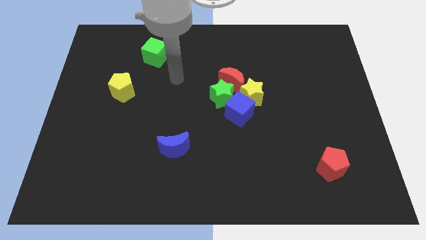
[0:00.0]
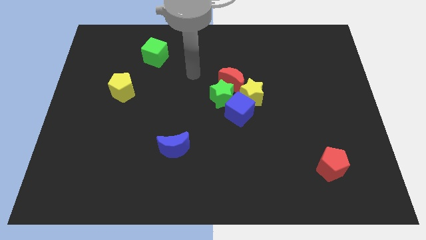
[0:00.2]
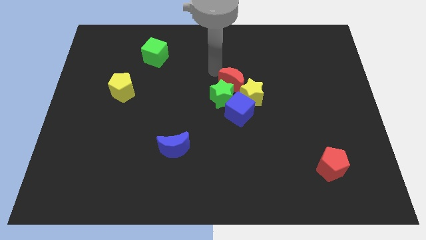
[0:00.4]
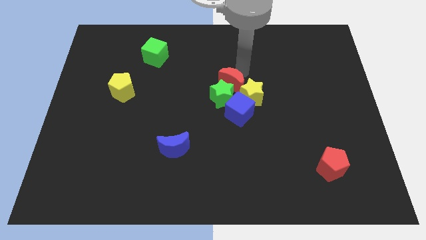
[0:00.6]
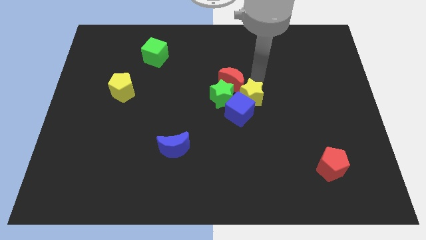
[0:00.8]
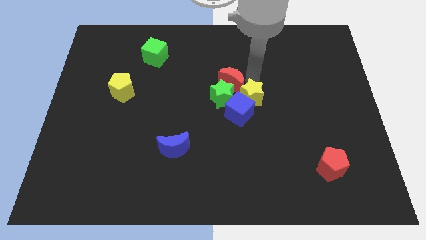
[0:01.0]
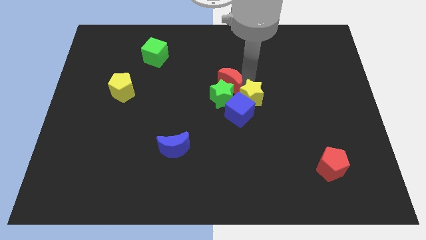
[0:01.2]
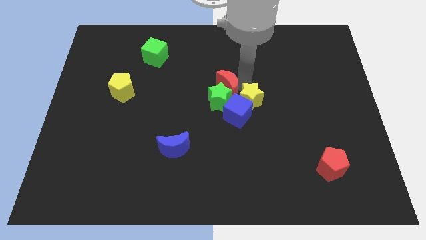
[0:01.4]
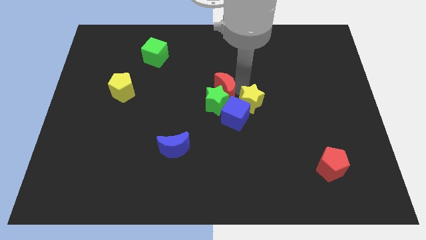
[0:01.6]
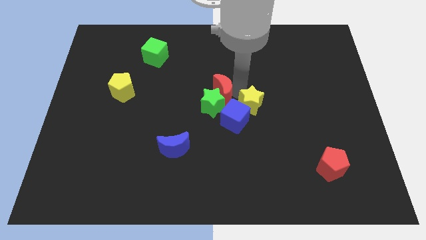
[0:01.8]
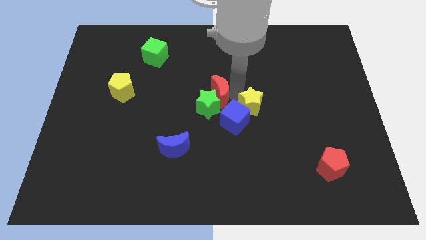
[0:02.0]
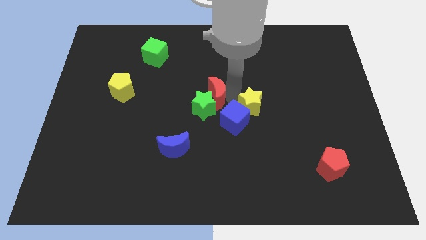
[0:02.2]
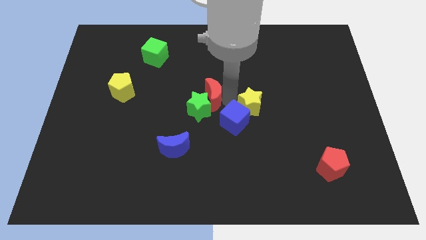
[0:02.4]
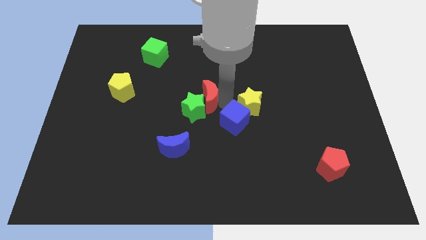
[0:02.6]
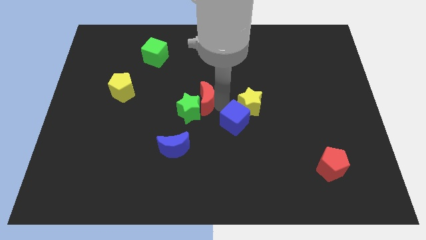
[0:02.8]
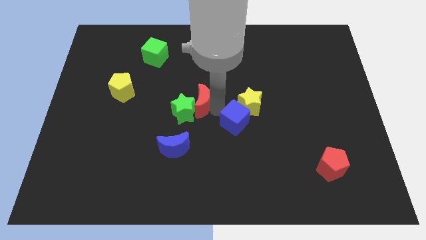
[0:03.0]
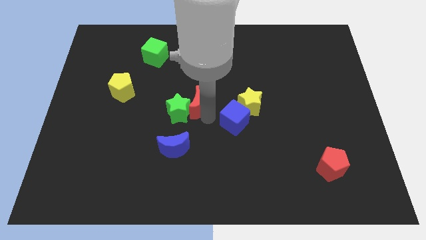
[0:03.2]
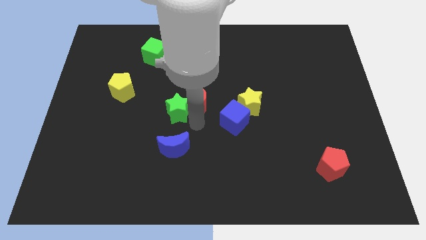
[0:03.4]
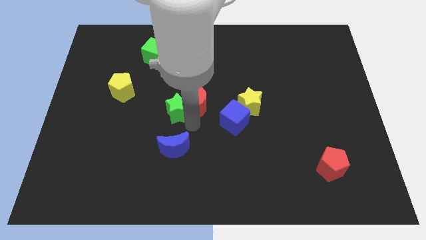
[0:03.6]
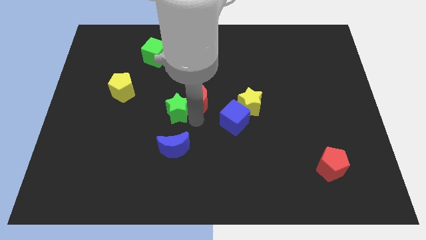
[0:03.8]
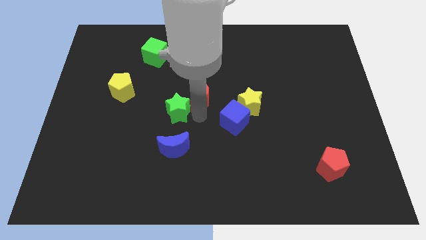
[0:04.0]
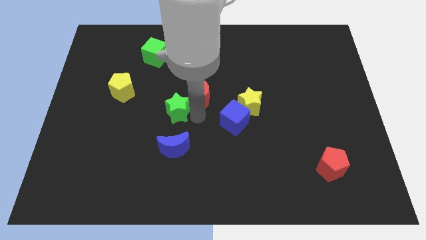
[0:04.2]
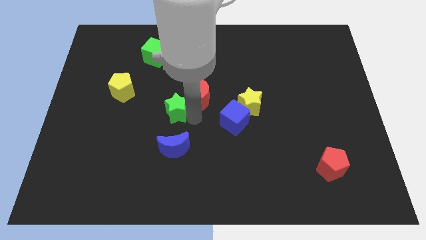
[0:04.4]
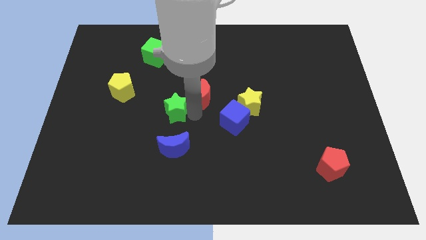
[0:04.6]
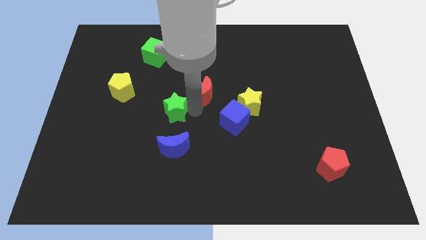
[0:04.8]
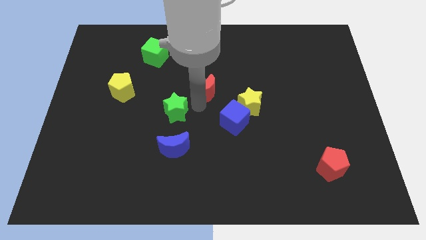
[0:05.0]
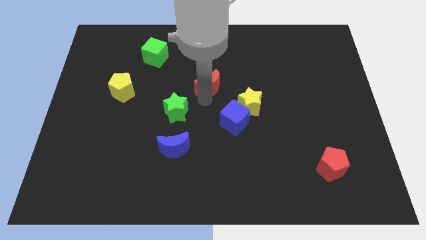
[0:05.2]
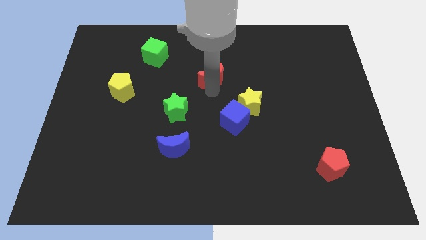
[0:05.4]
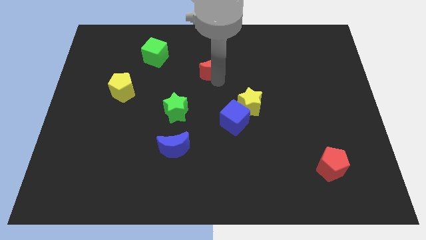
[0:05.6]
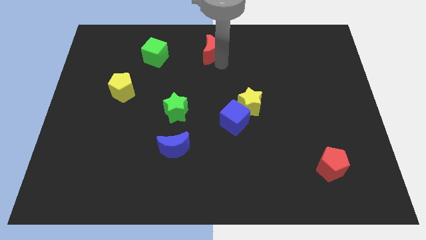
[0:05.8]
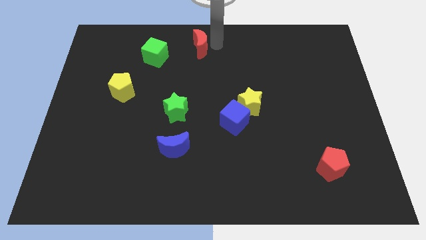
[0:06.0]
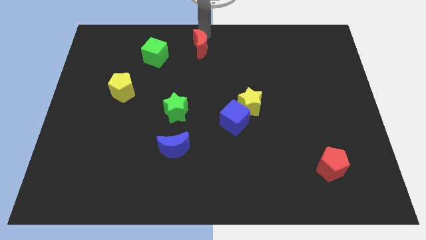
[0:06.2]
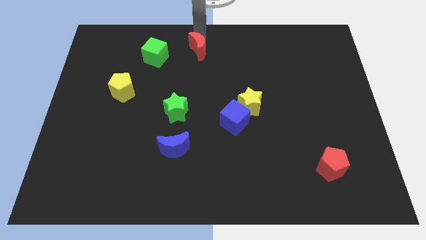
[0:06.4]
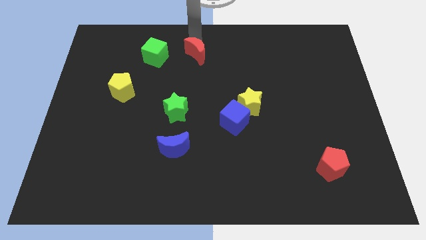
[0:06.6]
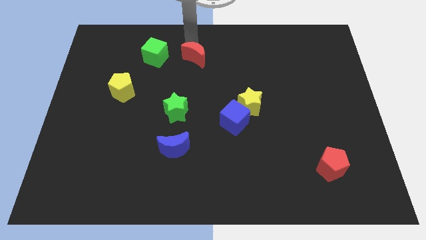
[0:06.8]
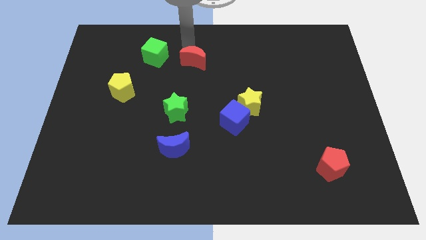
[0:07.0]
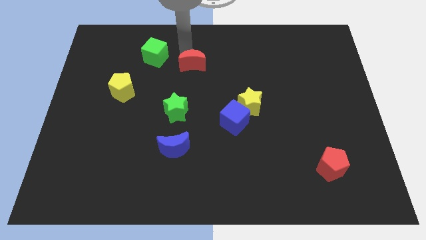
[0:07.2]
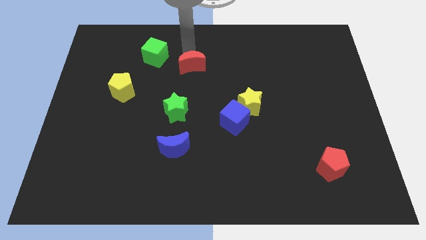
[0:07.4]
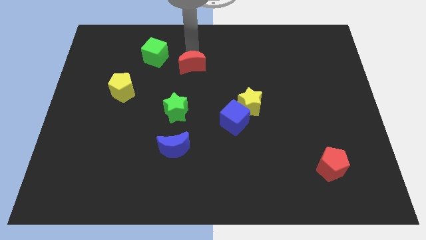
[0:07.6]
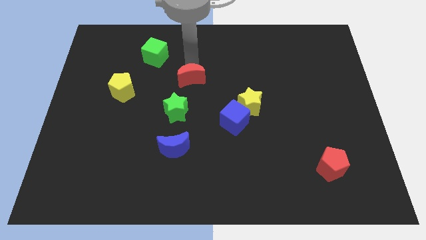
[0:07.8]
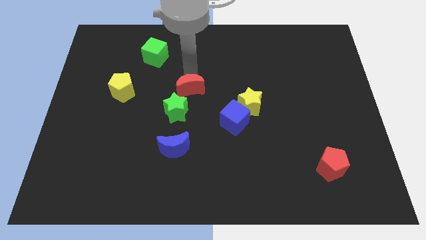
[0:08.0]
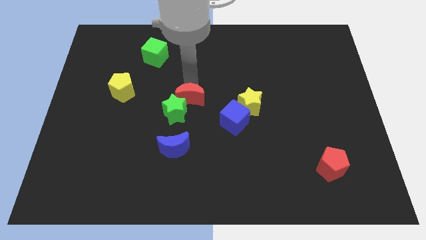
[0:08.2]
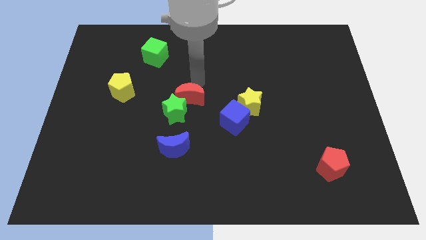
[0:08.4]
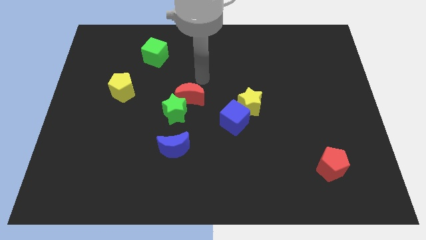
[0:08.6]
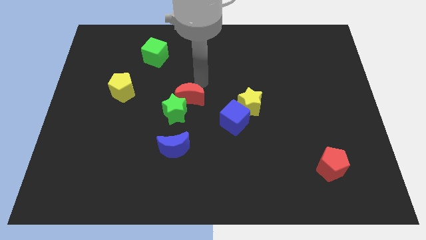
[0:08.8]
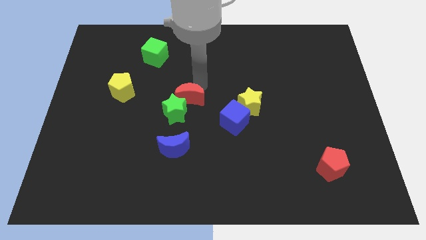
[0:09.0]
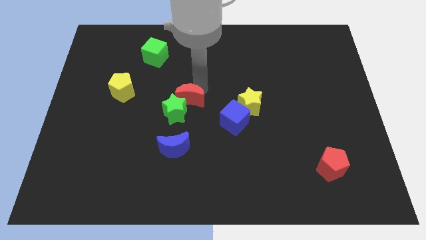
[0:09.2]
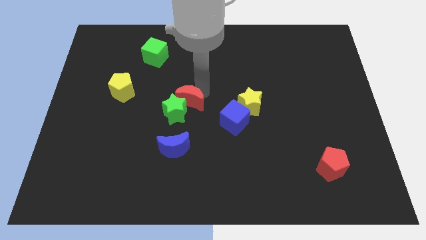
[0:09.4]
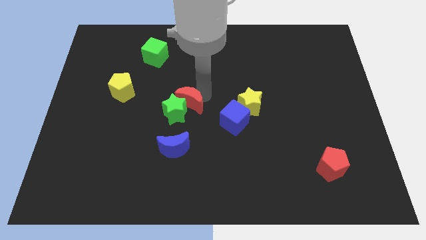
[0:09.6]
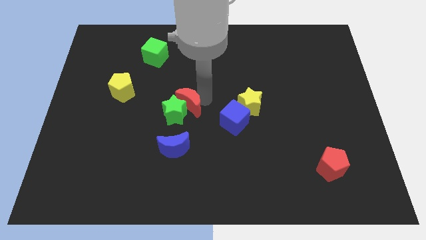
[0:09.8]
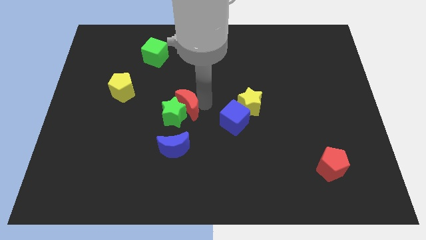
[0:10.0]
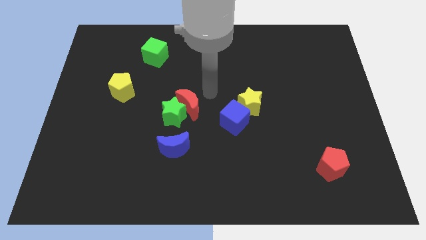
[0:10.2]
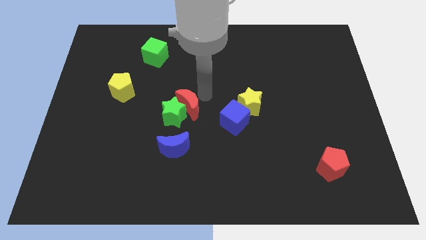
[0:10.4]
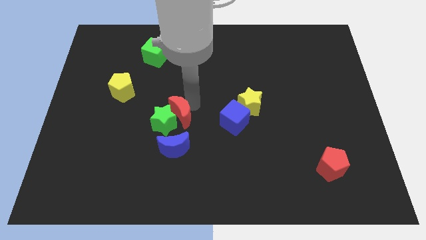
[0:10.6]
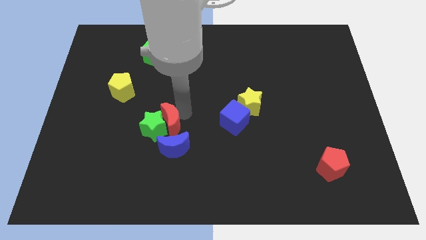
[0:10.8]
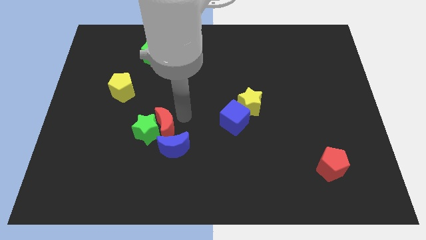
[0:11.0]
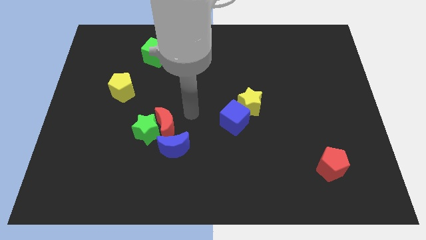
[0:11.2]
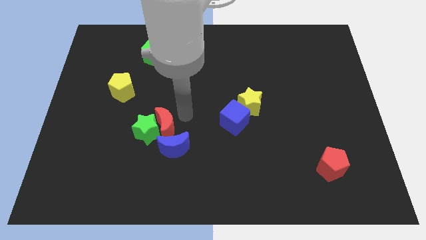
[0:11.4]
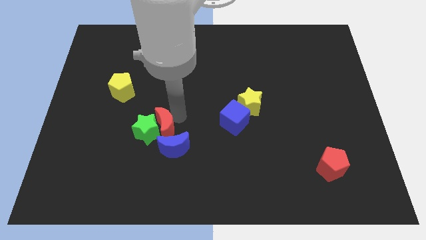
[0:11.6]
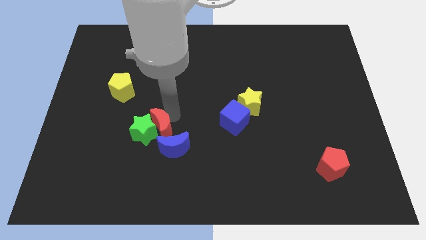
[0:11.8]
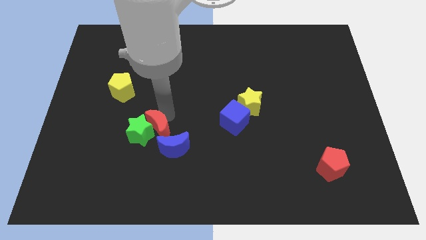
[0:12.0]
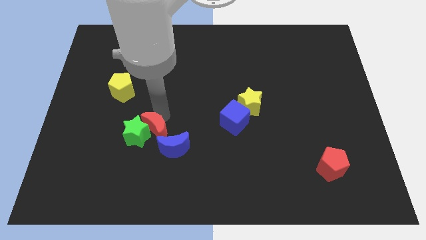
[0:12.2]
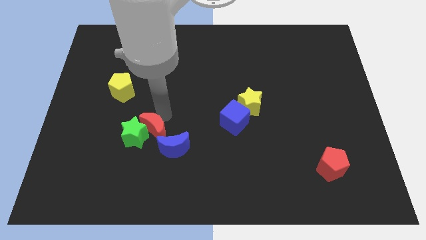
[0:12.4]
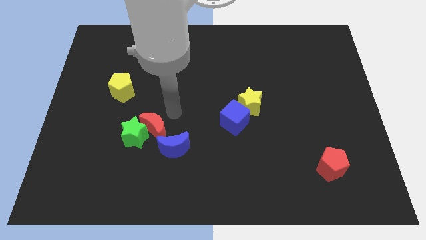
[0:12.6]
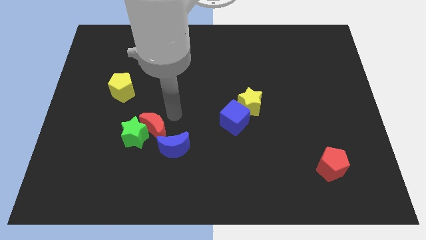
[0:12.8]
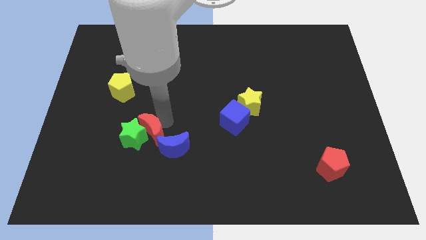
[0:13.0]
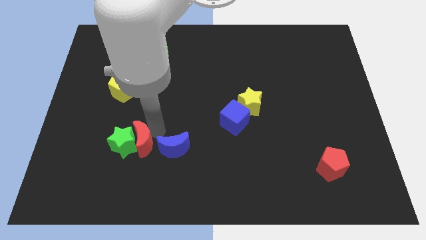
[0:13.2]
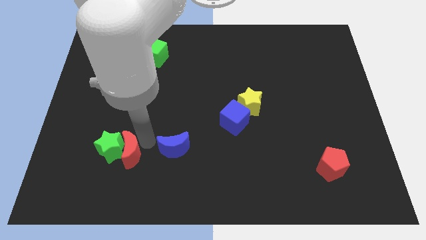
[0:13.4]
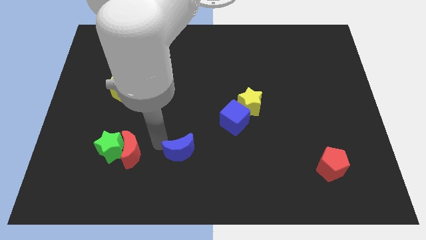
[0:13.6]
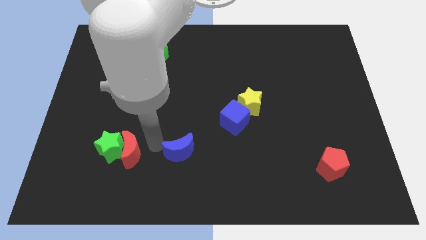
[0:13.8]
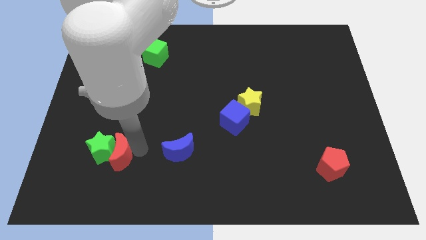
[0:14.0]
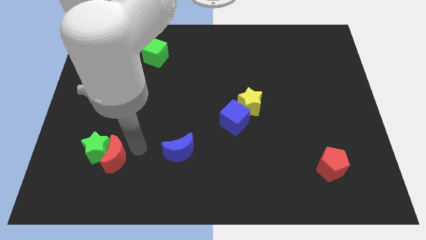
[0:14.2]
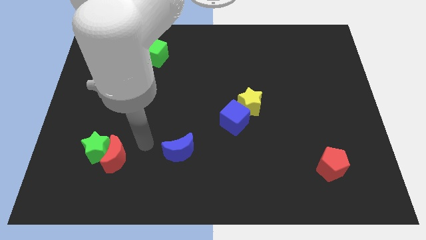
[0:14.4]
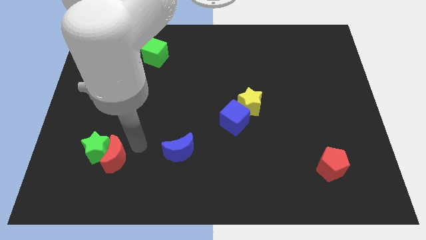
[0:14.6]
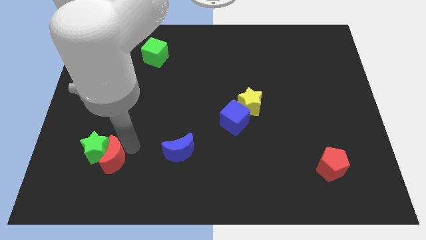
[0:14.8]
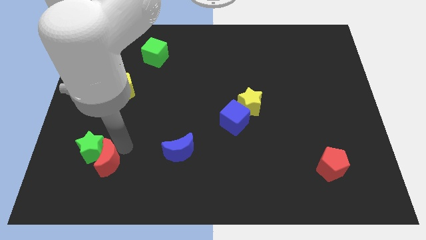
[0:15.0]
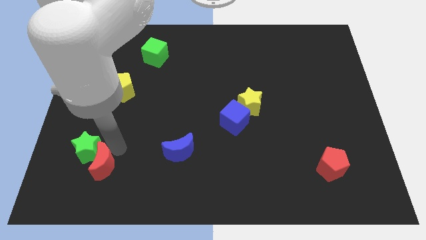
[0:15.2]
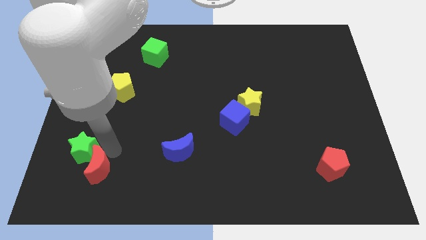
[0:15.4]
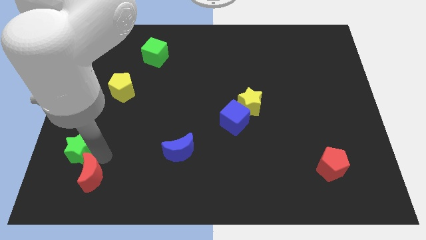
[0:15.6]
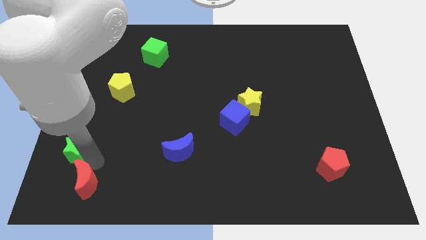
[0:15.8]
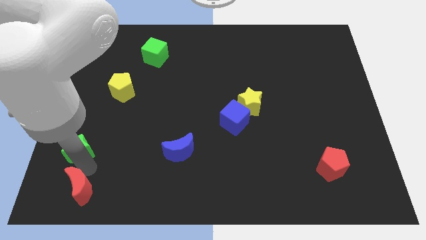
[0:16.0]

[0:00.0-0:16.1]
put the red moon to the bottom left corner
